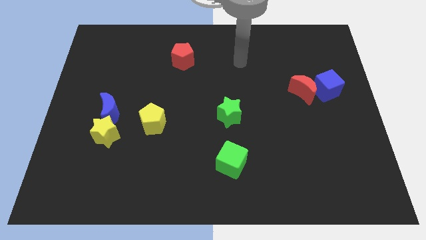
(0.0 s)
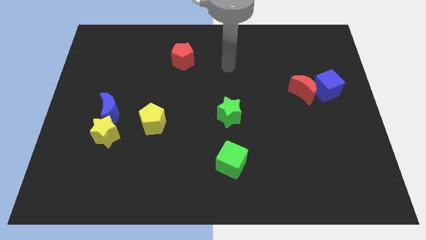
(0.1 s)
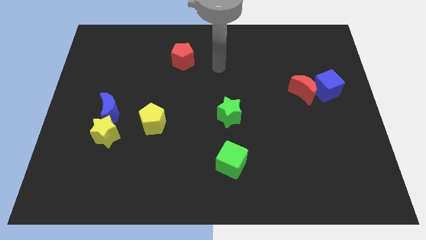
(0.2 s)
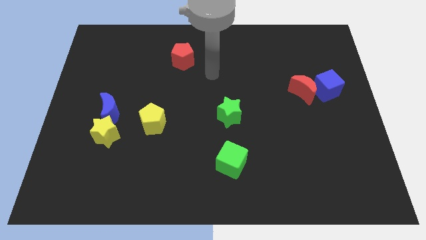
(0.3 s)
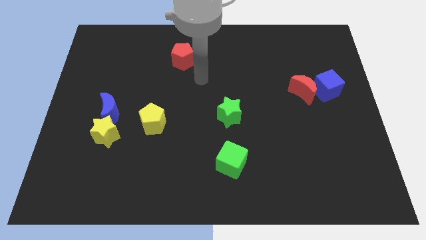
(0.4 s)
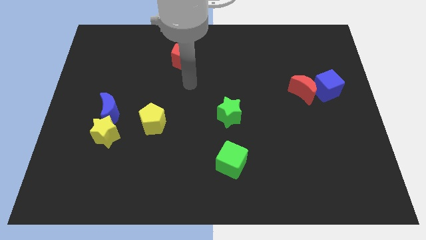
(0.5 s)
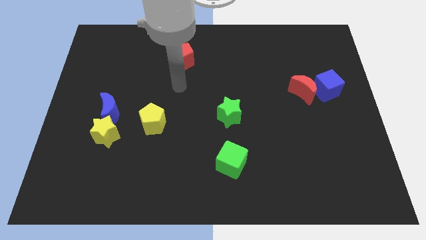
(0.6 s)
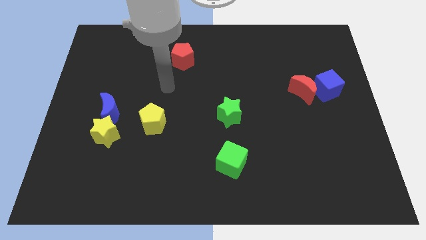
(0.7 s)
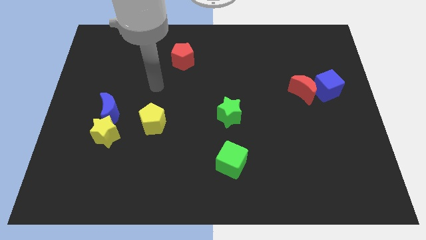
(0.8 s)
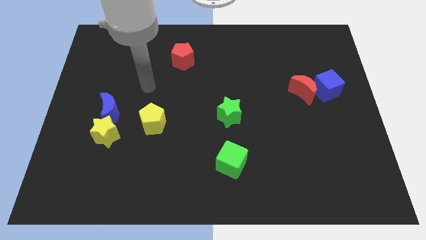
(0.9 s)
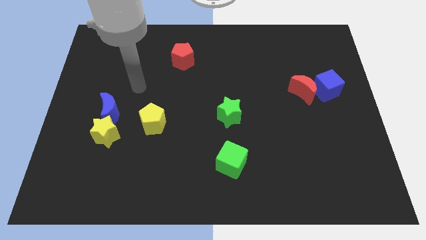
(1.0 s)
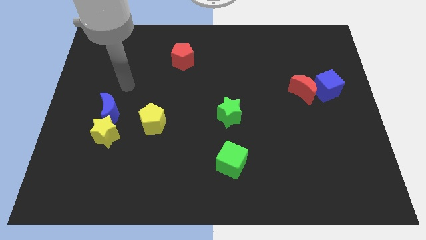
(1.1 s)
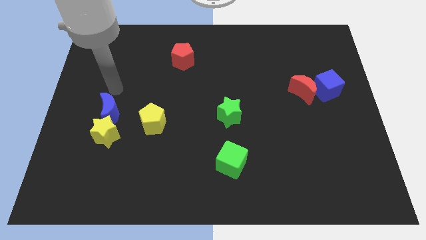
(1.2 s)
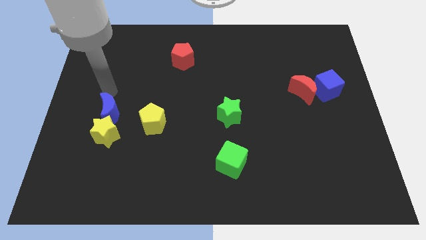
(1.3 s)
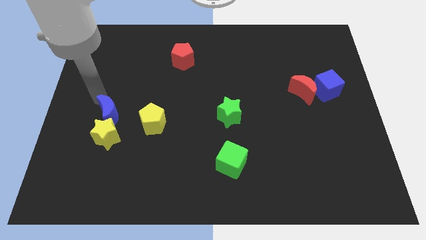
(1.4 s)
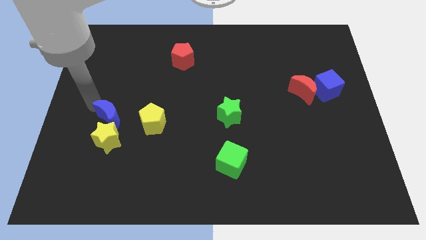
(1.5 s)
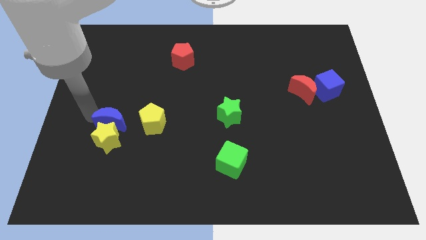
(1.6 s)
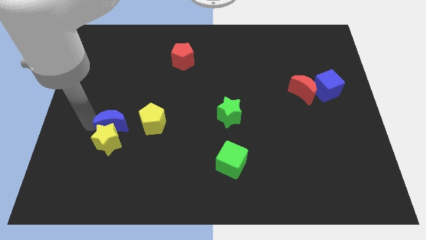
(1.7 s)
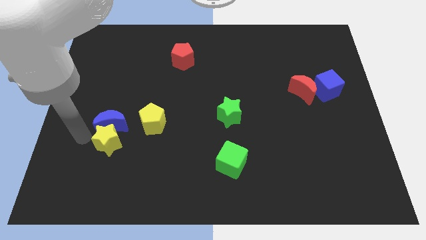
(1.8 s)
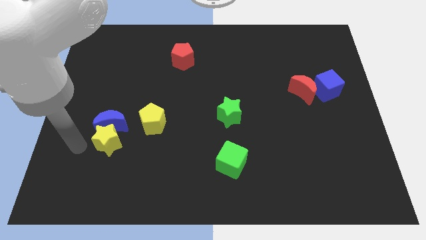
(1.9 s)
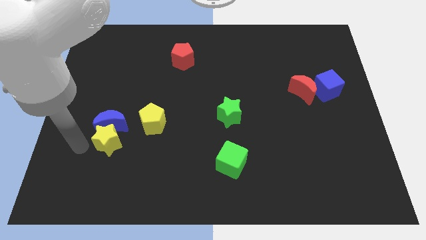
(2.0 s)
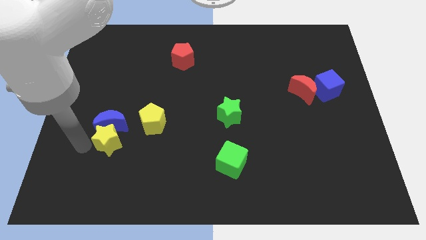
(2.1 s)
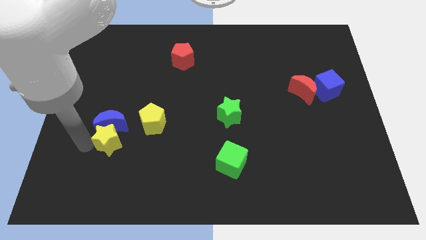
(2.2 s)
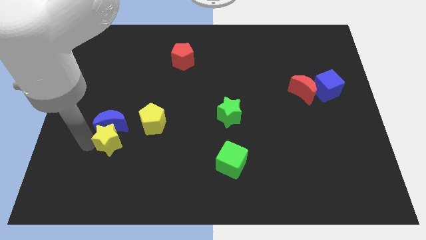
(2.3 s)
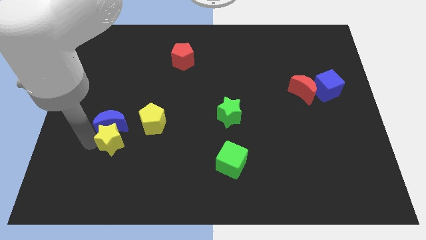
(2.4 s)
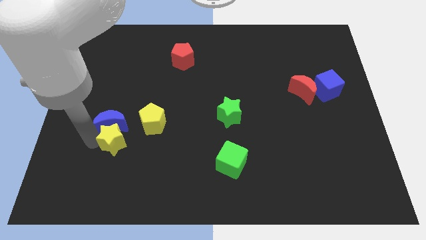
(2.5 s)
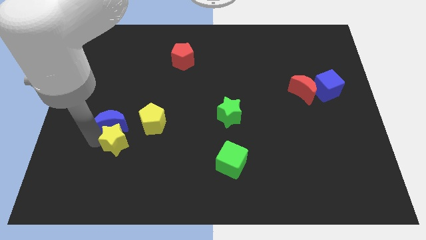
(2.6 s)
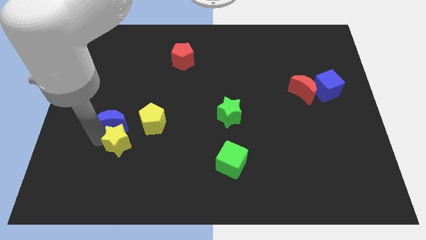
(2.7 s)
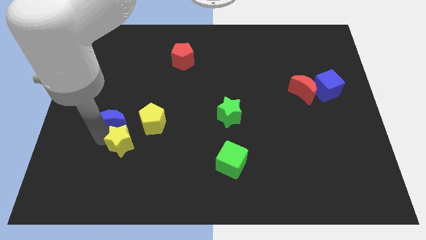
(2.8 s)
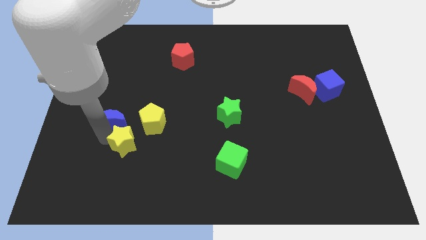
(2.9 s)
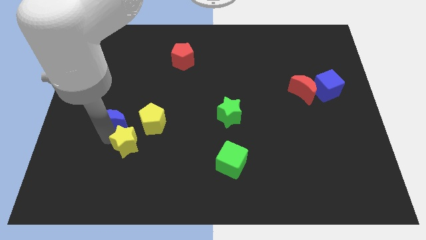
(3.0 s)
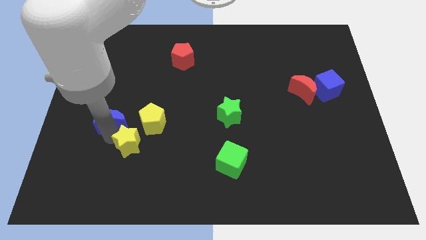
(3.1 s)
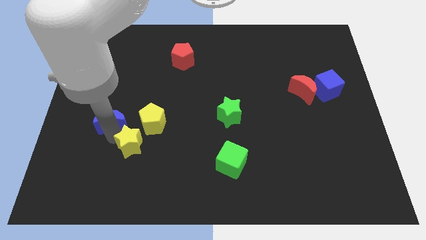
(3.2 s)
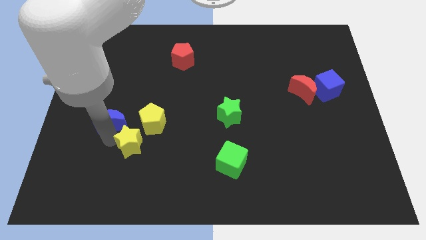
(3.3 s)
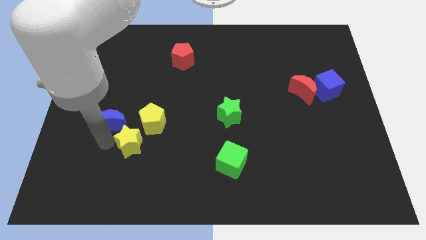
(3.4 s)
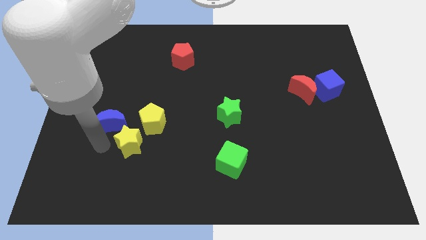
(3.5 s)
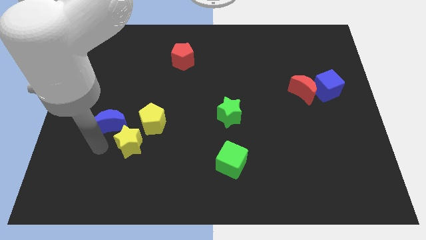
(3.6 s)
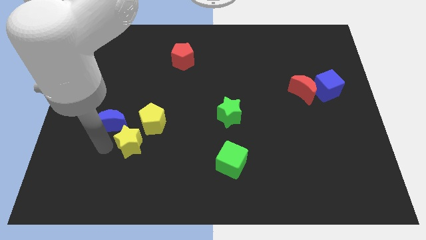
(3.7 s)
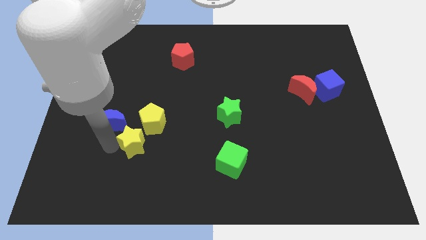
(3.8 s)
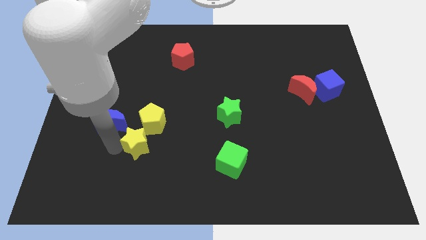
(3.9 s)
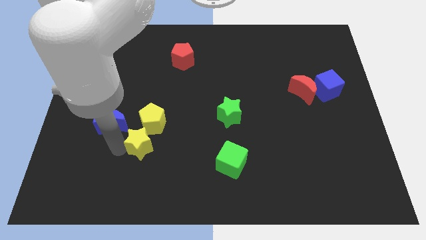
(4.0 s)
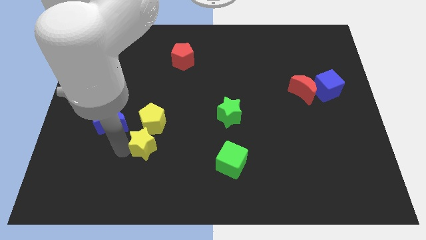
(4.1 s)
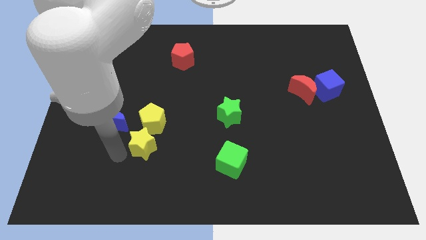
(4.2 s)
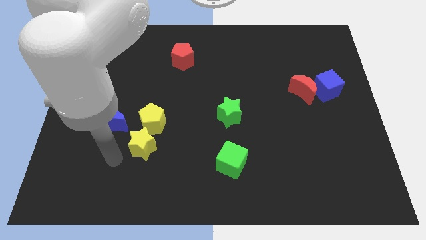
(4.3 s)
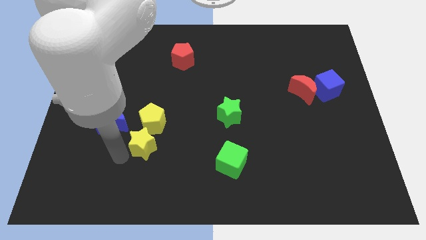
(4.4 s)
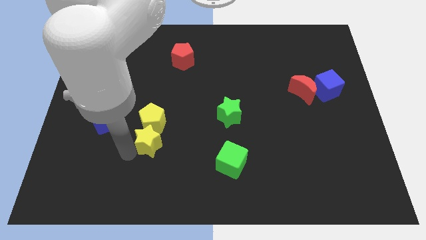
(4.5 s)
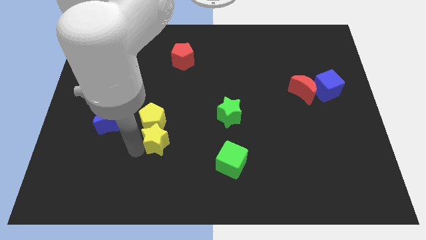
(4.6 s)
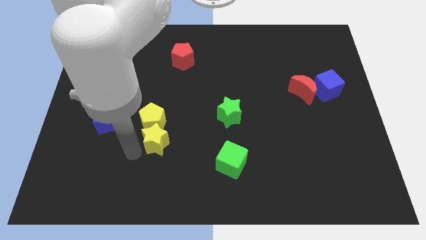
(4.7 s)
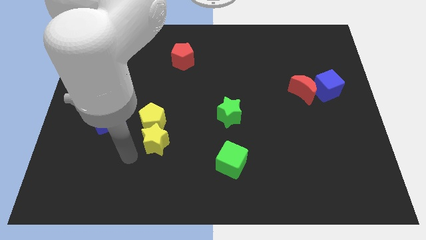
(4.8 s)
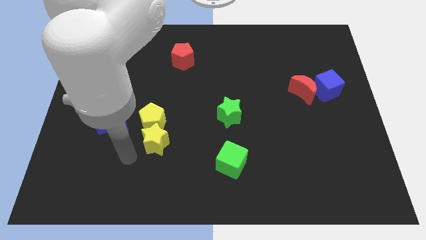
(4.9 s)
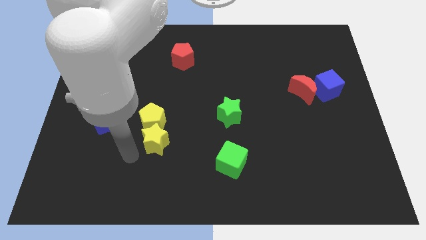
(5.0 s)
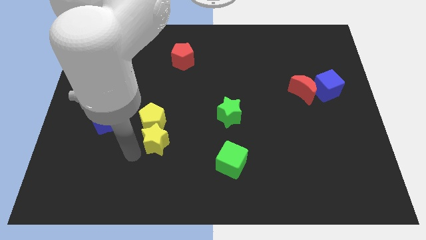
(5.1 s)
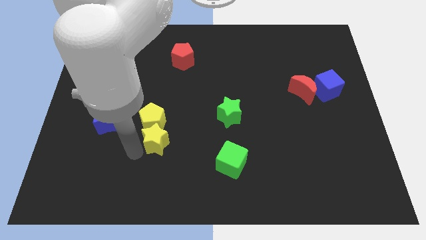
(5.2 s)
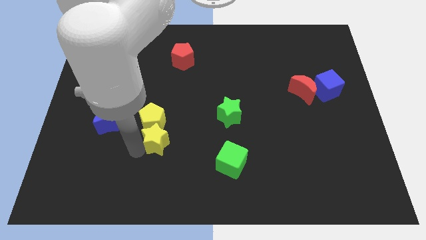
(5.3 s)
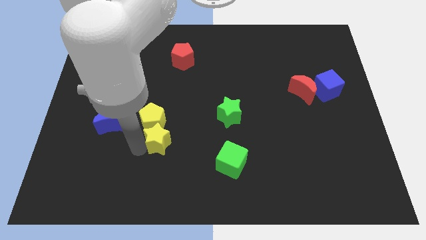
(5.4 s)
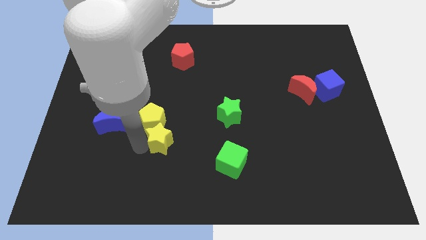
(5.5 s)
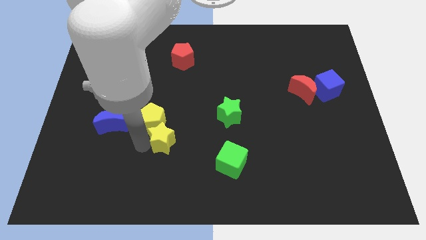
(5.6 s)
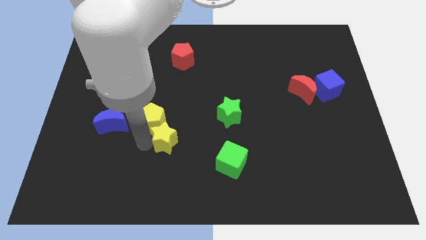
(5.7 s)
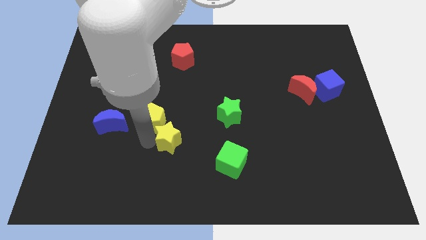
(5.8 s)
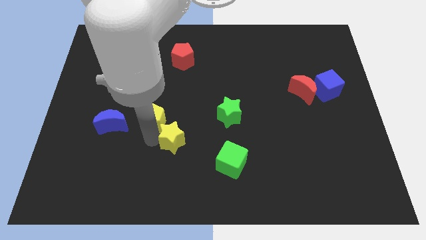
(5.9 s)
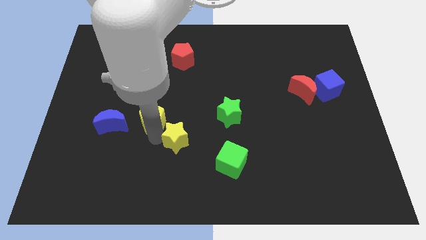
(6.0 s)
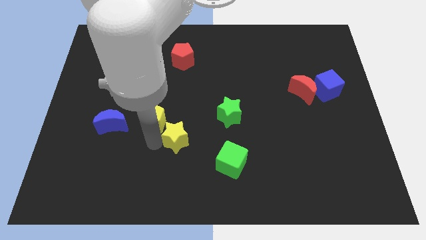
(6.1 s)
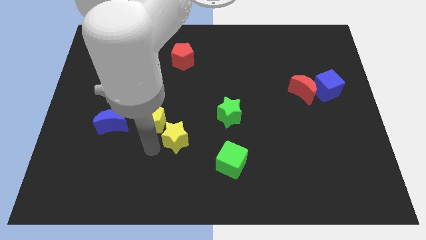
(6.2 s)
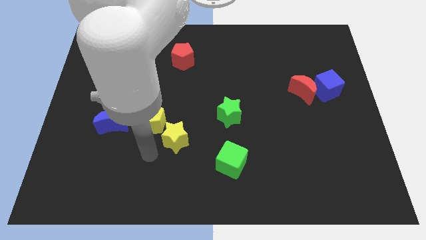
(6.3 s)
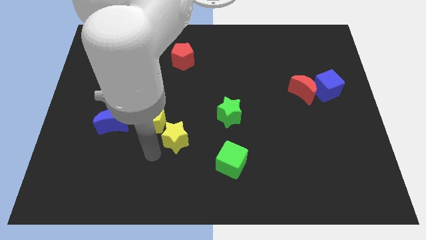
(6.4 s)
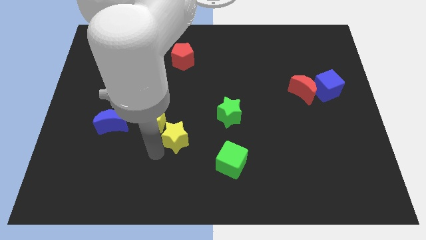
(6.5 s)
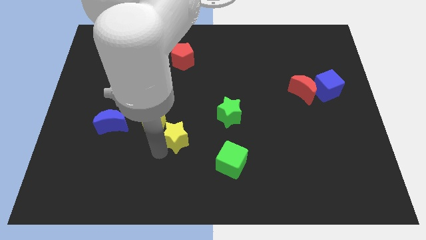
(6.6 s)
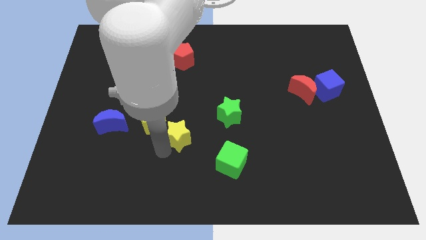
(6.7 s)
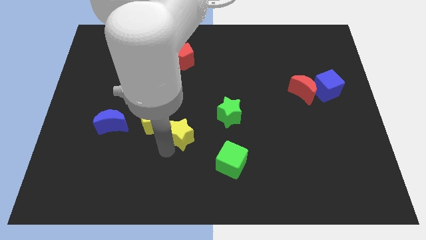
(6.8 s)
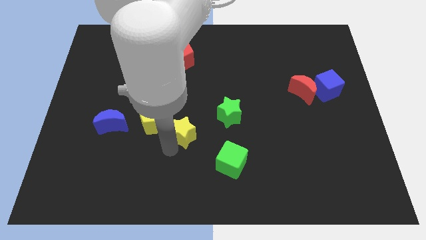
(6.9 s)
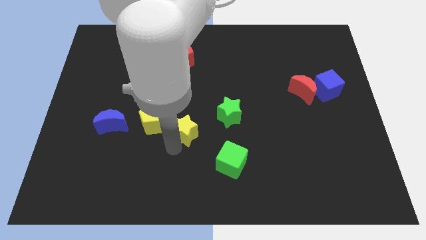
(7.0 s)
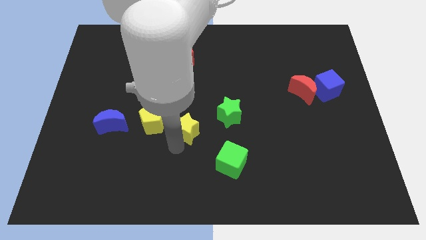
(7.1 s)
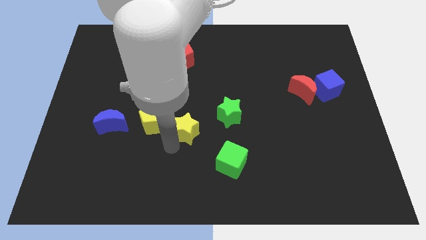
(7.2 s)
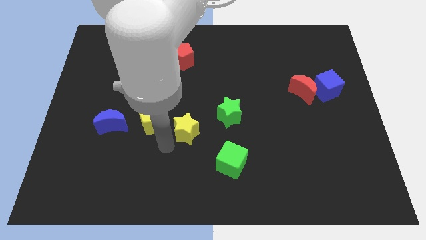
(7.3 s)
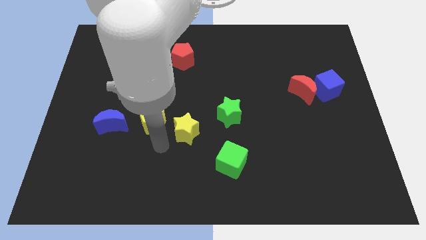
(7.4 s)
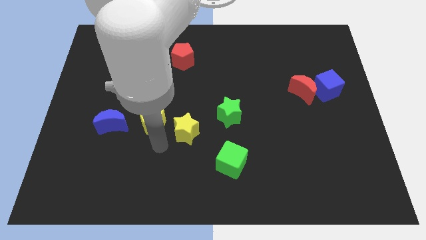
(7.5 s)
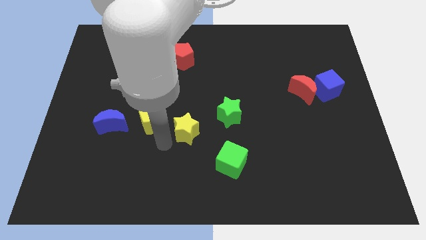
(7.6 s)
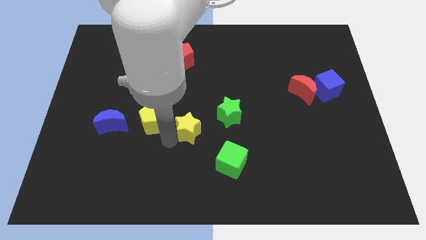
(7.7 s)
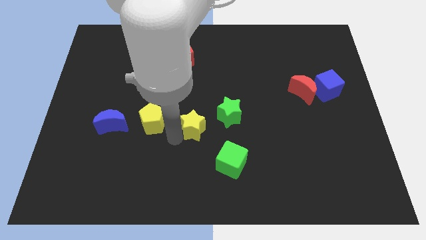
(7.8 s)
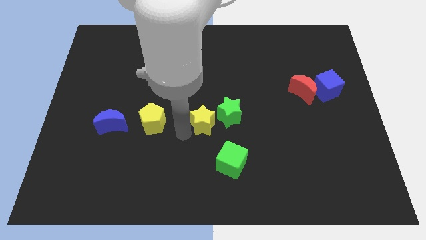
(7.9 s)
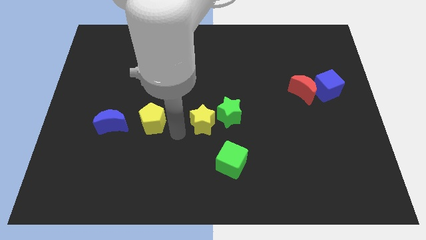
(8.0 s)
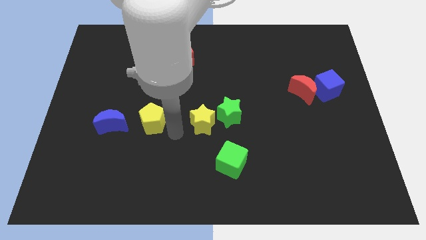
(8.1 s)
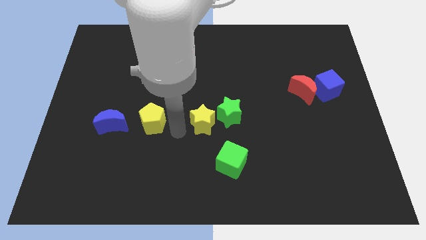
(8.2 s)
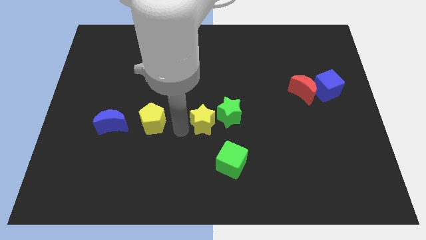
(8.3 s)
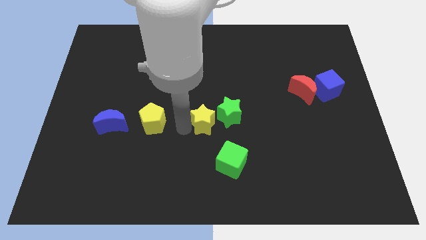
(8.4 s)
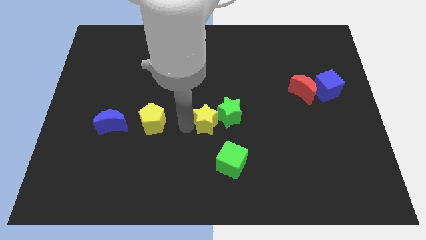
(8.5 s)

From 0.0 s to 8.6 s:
push the yellow star close to the green star
